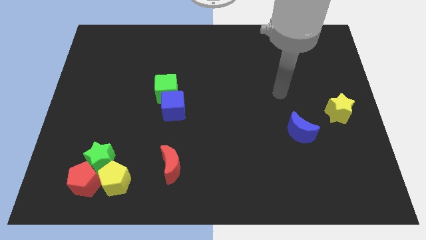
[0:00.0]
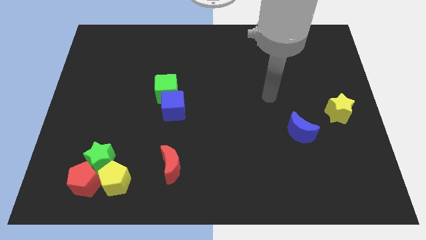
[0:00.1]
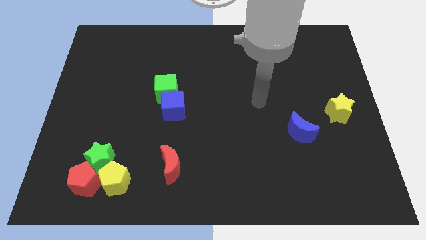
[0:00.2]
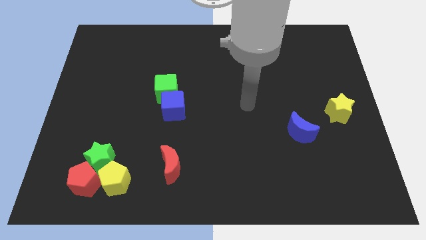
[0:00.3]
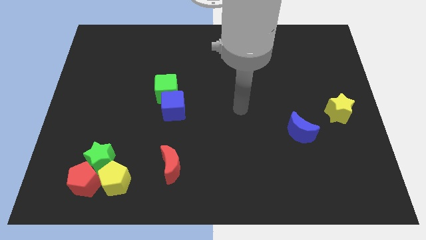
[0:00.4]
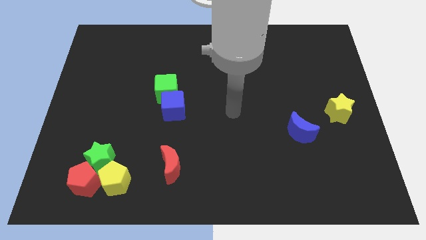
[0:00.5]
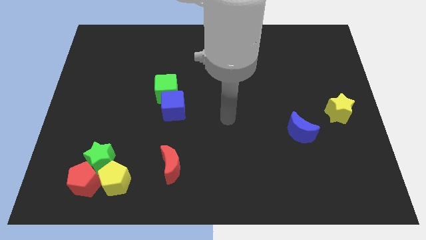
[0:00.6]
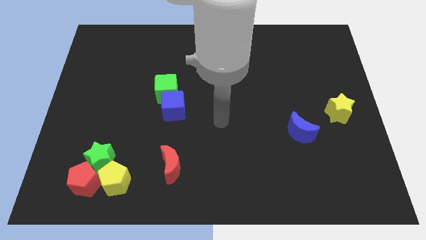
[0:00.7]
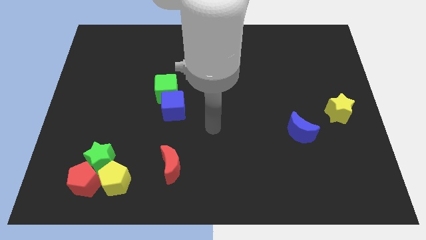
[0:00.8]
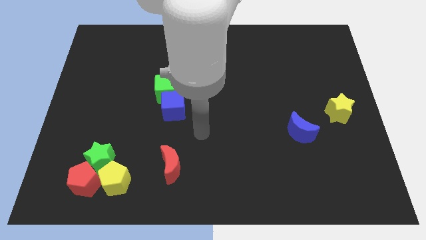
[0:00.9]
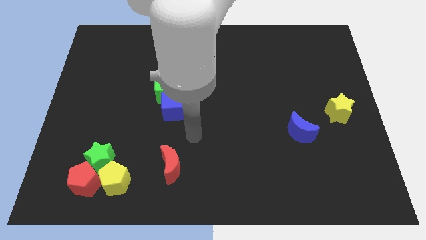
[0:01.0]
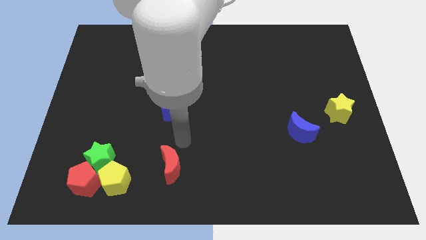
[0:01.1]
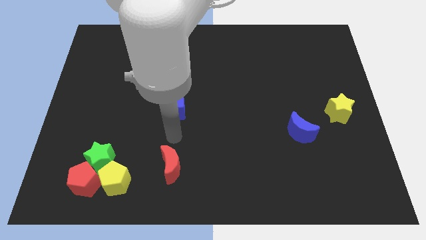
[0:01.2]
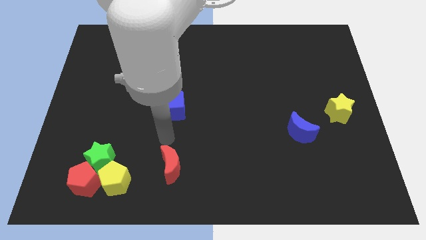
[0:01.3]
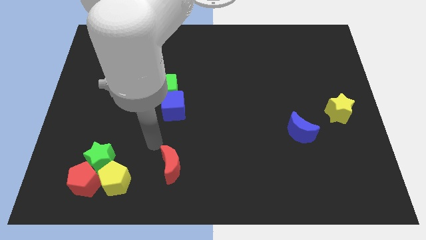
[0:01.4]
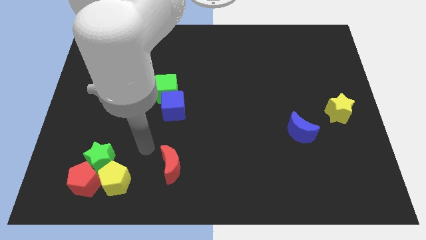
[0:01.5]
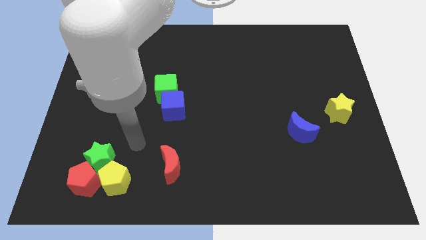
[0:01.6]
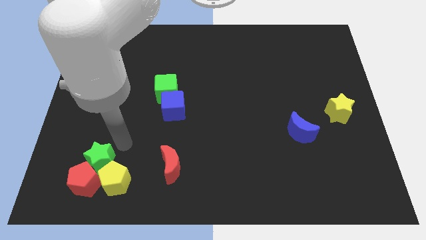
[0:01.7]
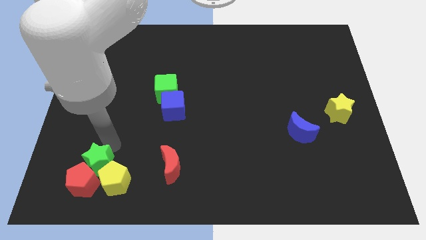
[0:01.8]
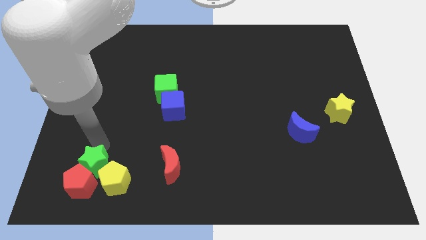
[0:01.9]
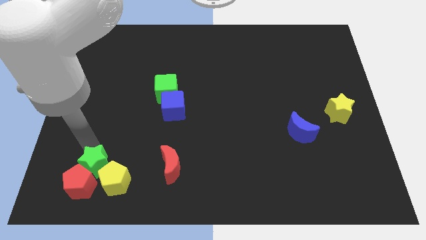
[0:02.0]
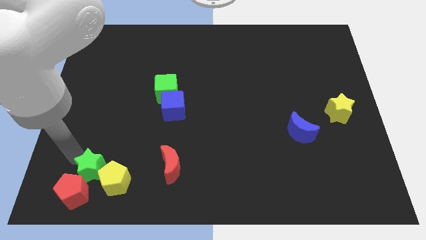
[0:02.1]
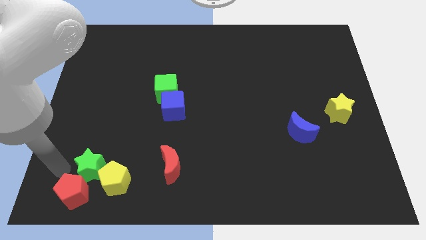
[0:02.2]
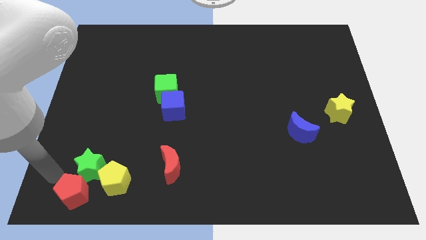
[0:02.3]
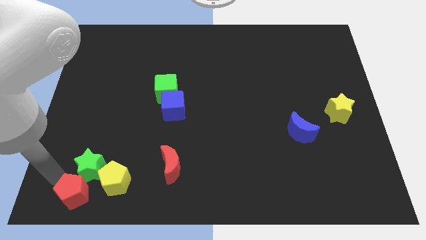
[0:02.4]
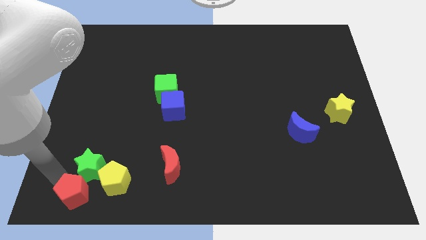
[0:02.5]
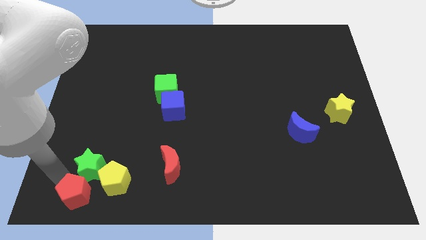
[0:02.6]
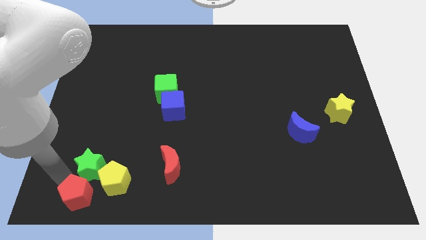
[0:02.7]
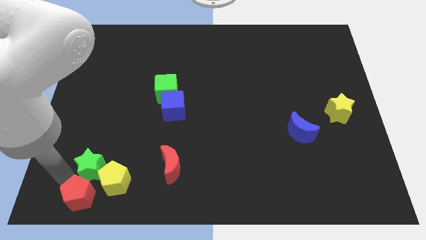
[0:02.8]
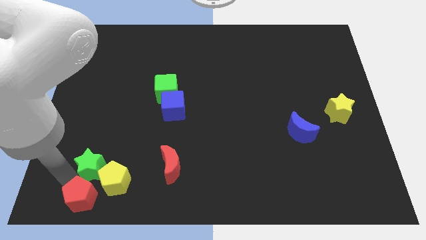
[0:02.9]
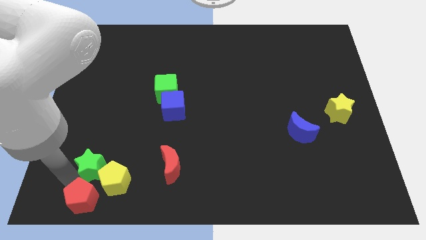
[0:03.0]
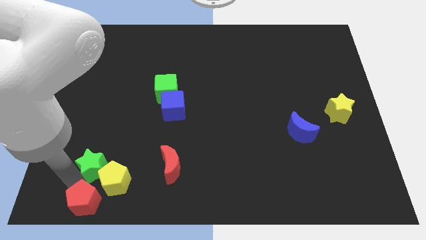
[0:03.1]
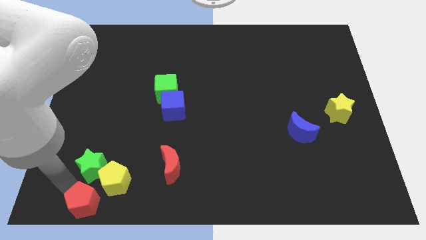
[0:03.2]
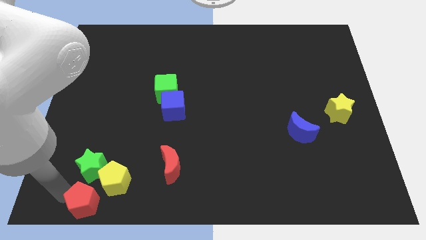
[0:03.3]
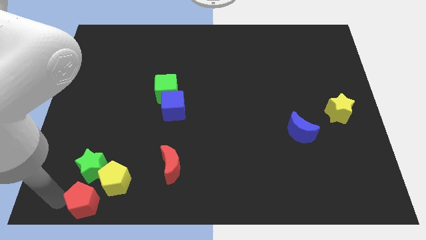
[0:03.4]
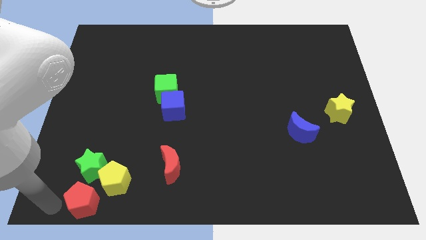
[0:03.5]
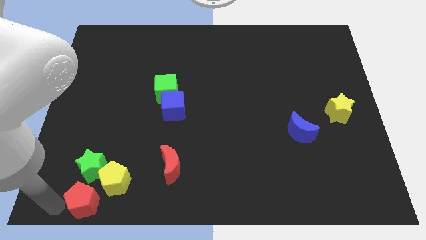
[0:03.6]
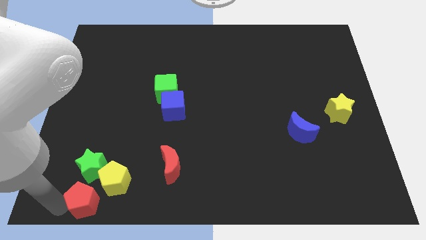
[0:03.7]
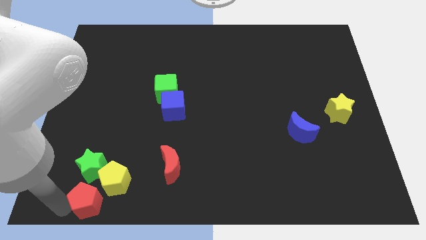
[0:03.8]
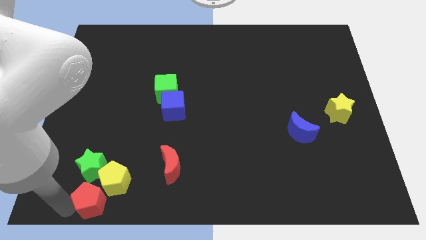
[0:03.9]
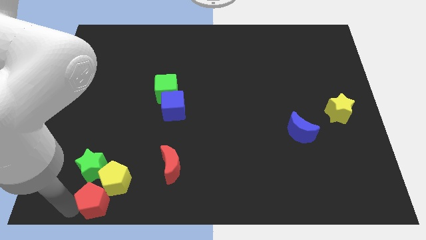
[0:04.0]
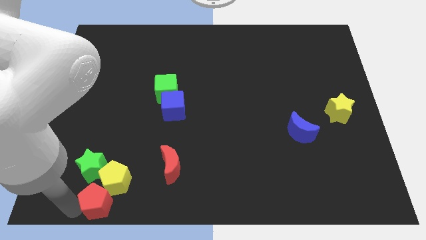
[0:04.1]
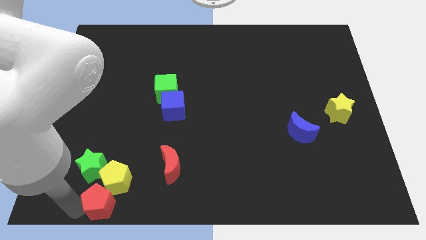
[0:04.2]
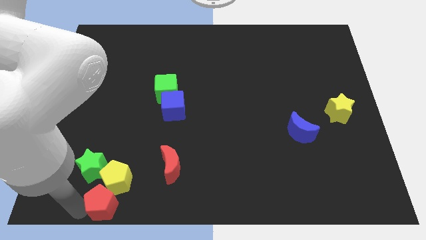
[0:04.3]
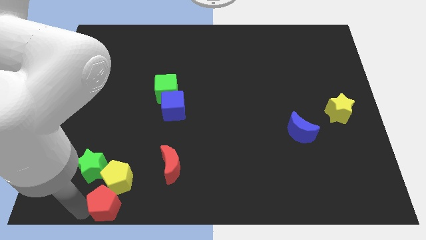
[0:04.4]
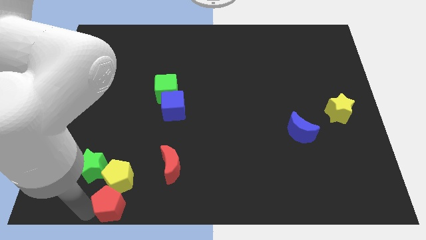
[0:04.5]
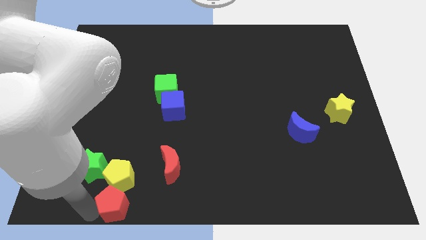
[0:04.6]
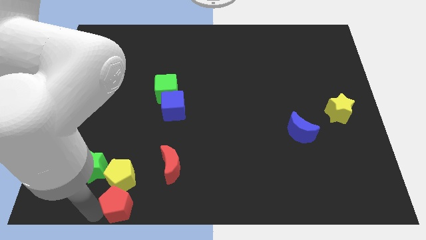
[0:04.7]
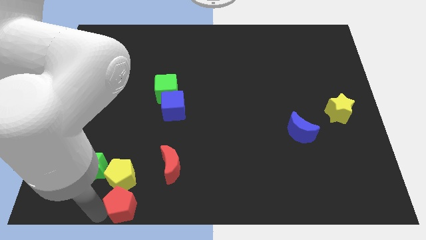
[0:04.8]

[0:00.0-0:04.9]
slightly slide the red pentagon to the right

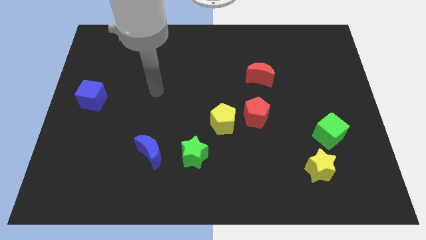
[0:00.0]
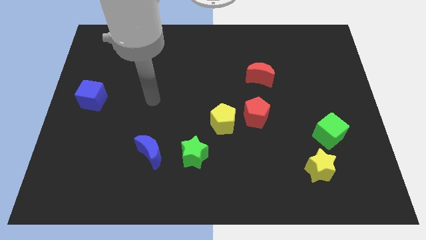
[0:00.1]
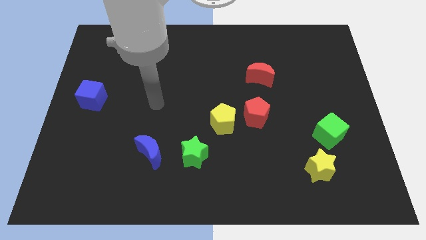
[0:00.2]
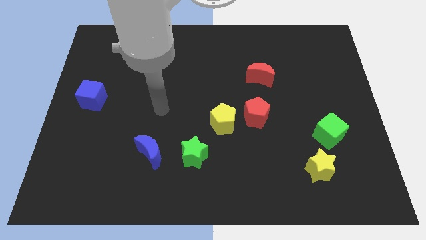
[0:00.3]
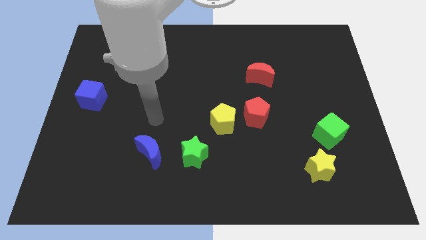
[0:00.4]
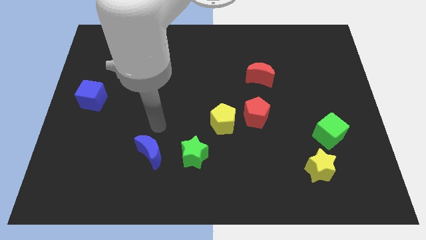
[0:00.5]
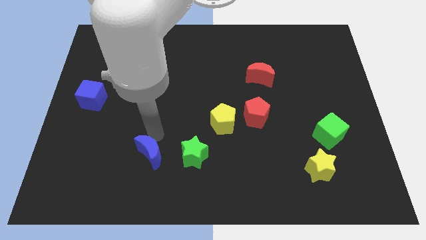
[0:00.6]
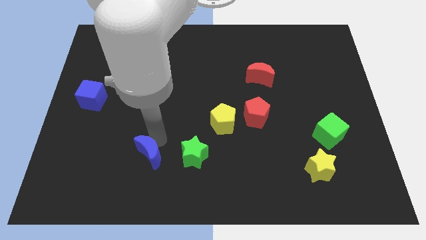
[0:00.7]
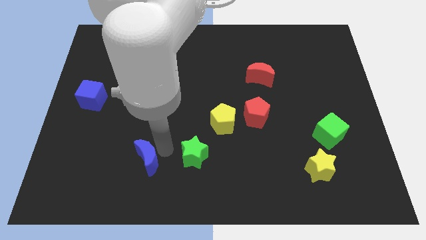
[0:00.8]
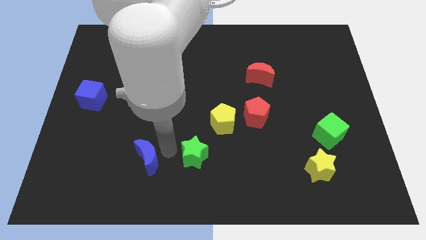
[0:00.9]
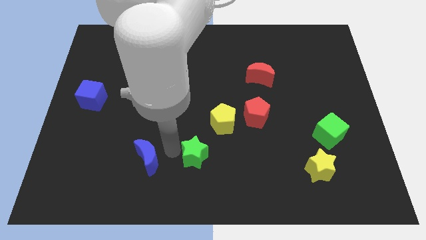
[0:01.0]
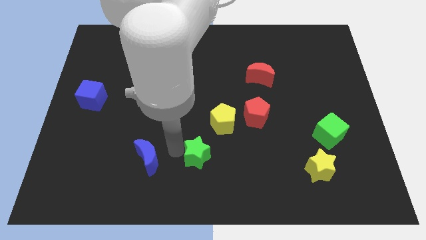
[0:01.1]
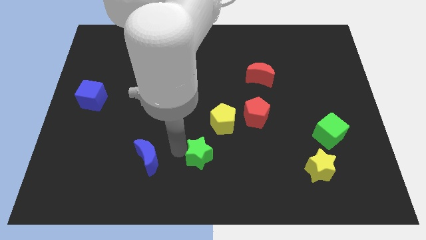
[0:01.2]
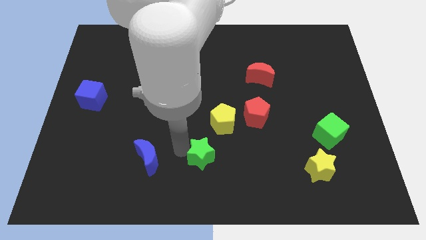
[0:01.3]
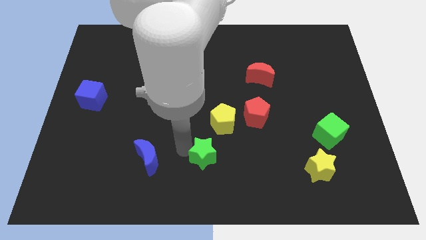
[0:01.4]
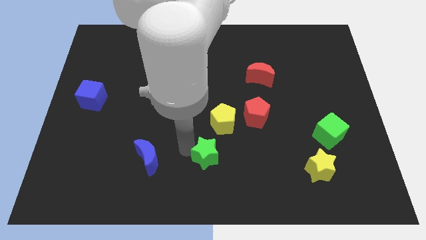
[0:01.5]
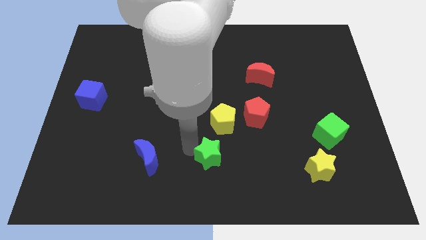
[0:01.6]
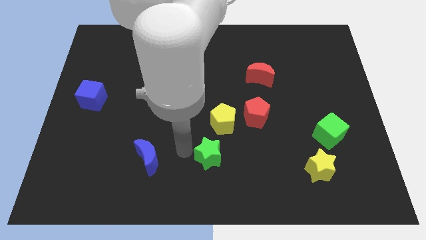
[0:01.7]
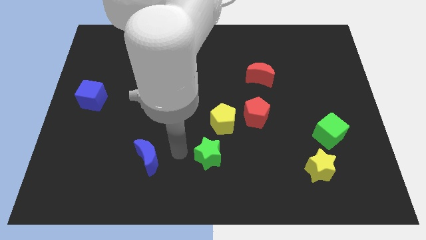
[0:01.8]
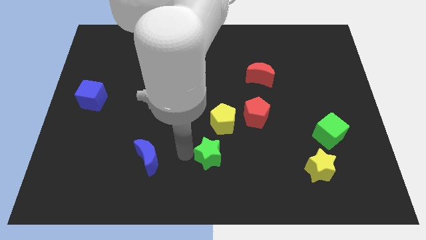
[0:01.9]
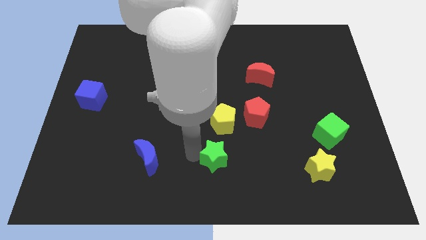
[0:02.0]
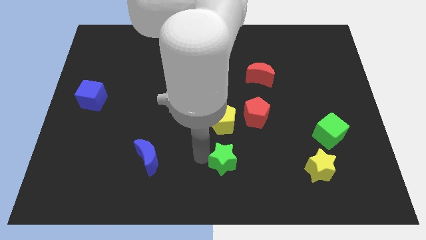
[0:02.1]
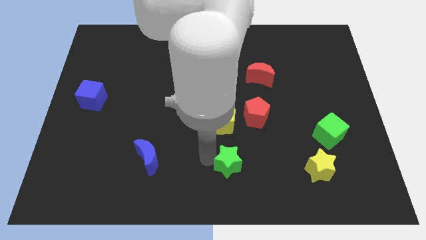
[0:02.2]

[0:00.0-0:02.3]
slightly move the green star to the right

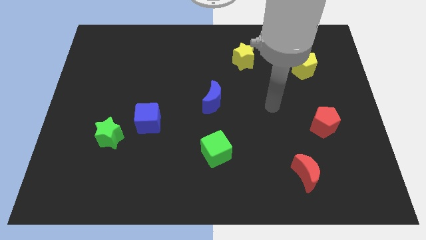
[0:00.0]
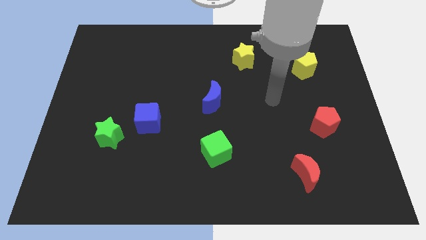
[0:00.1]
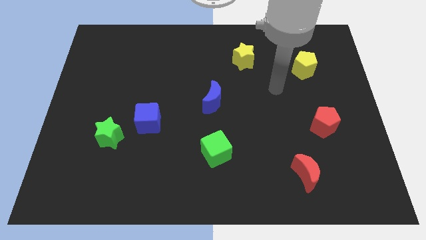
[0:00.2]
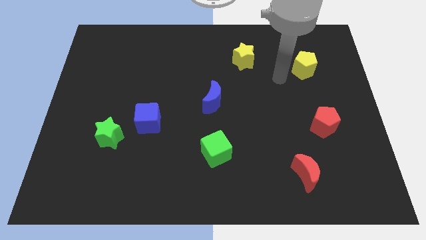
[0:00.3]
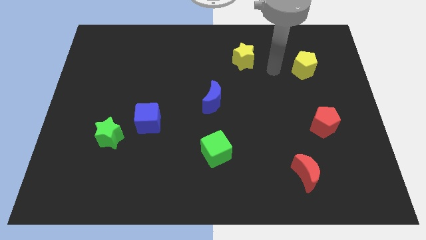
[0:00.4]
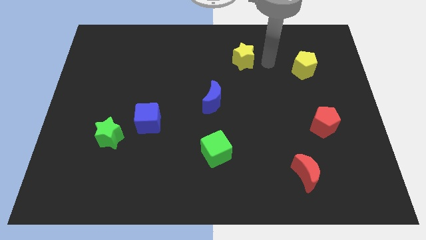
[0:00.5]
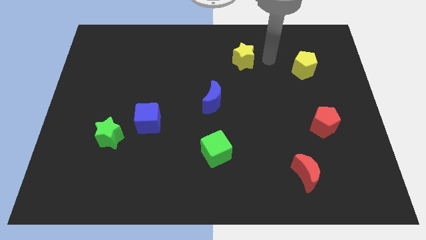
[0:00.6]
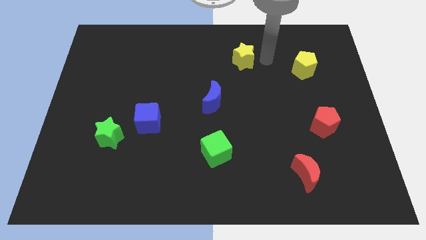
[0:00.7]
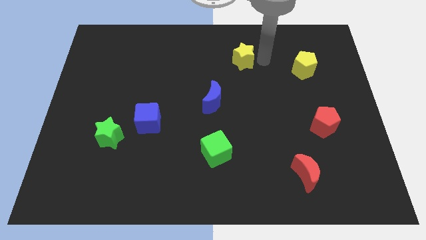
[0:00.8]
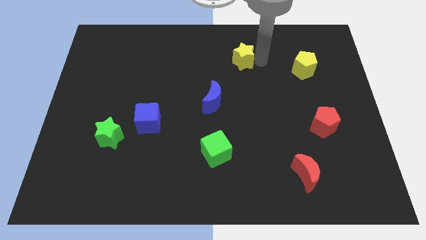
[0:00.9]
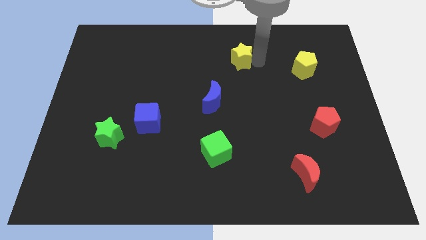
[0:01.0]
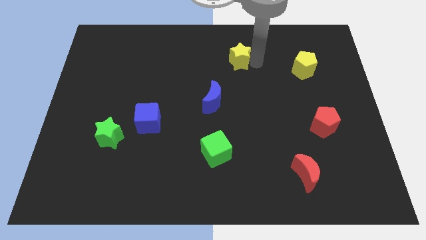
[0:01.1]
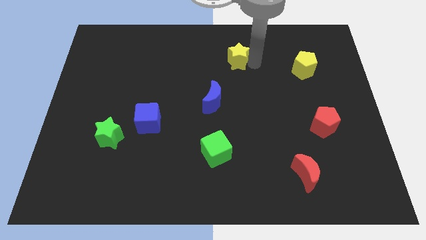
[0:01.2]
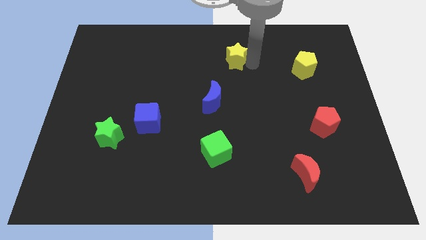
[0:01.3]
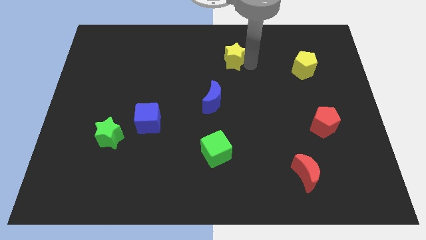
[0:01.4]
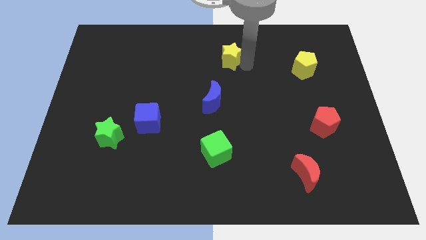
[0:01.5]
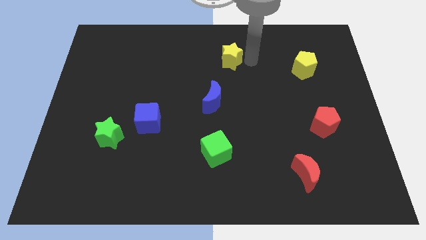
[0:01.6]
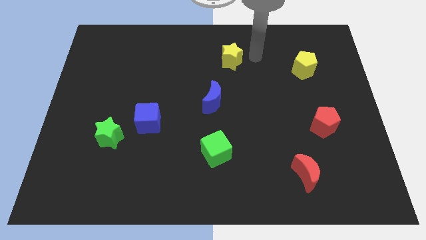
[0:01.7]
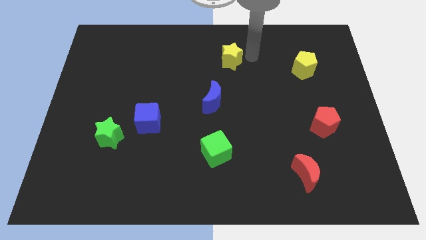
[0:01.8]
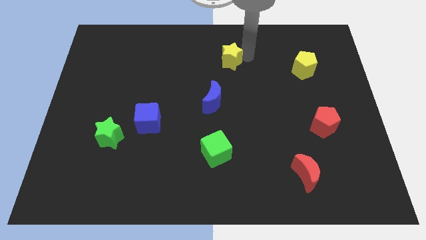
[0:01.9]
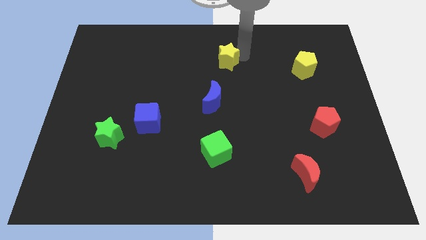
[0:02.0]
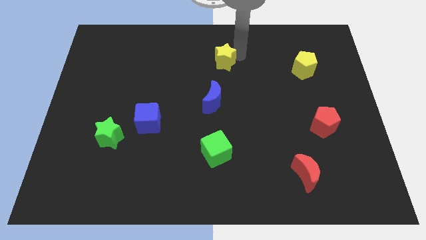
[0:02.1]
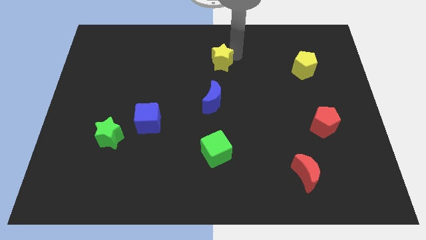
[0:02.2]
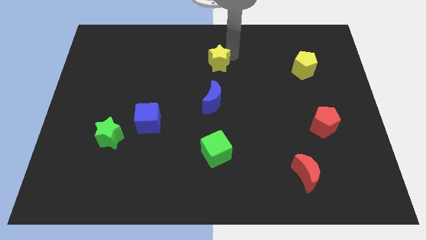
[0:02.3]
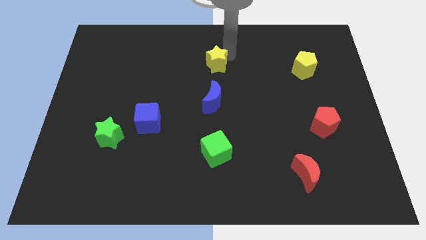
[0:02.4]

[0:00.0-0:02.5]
slightly slide the yellow star to the left
